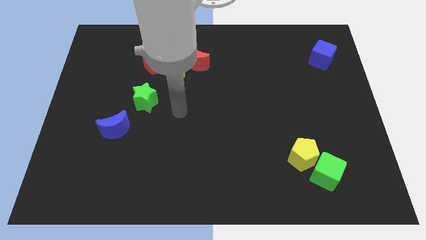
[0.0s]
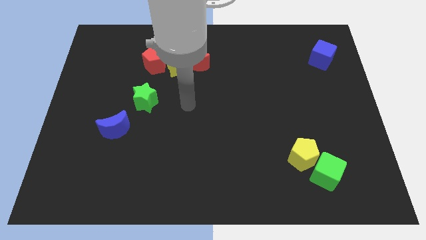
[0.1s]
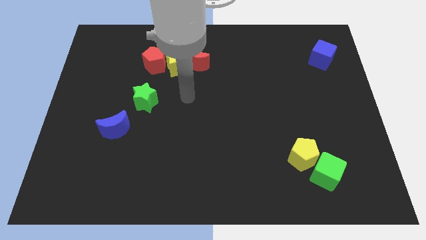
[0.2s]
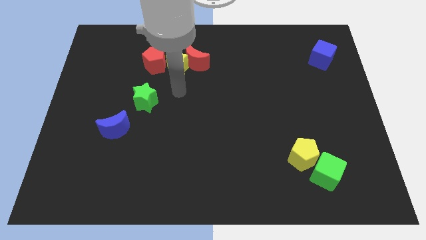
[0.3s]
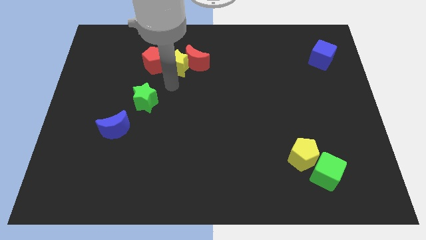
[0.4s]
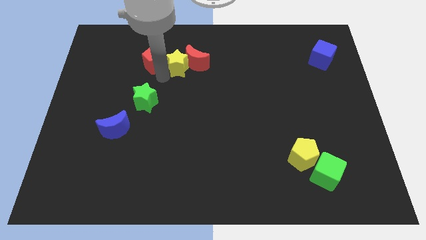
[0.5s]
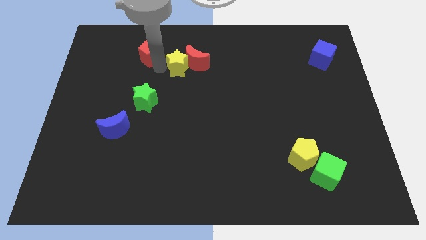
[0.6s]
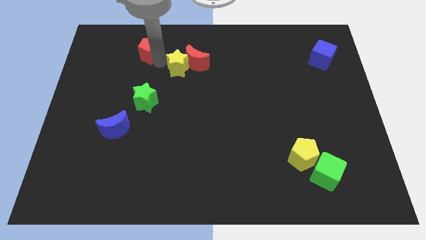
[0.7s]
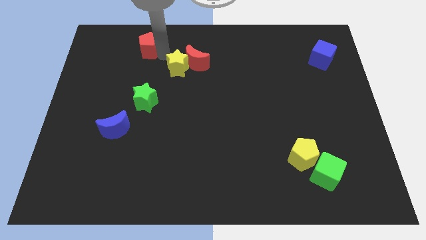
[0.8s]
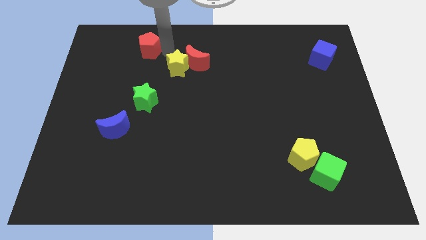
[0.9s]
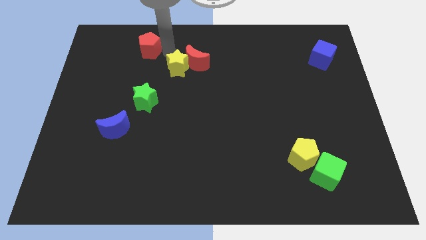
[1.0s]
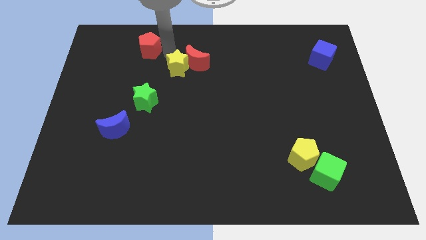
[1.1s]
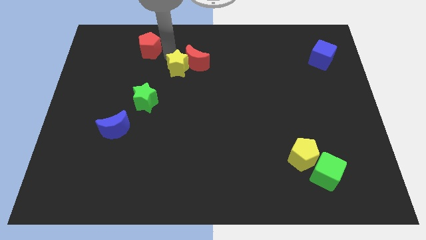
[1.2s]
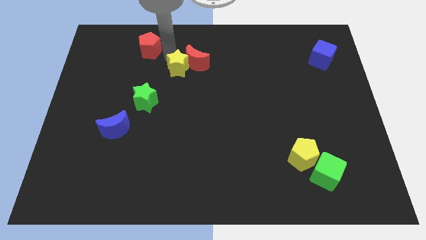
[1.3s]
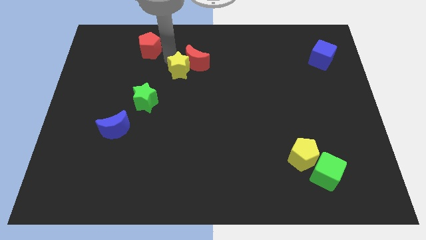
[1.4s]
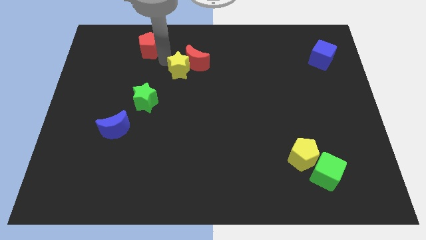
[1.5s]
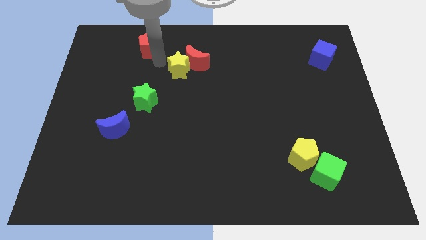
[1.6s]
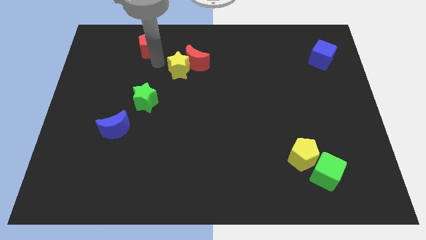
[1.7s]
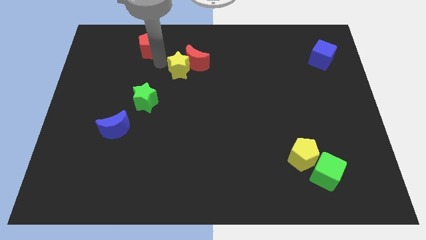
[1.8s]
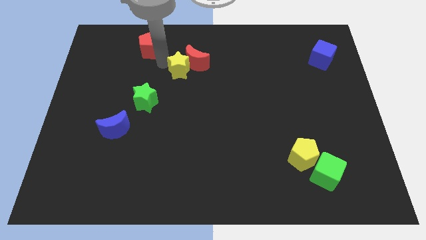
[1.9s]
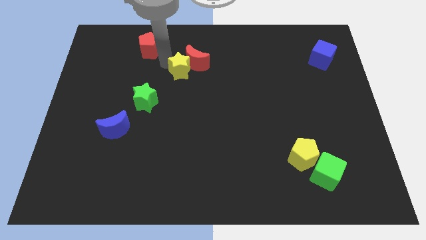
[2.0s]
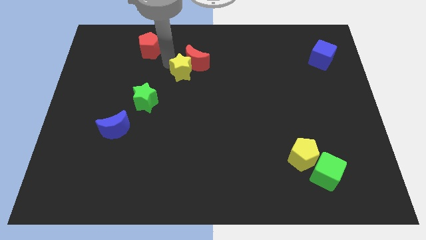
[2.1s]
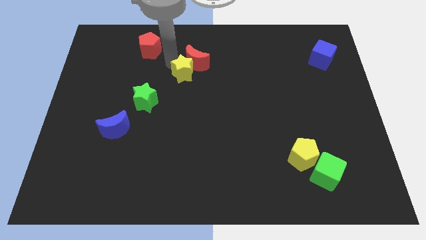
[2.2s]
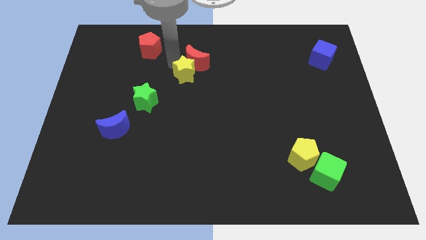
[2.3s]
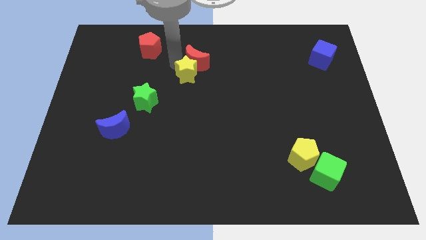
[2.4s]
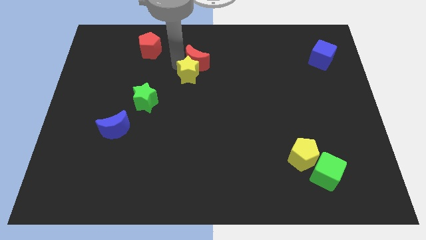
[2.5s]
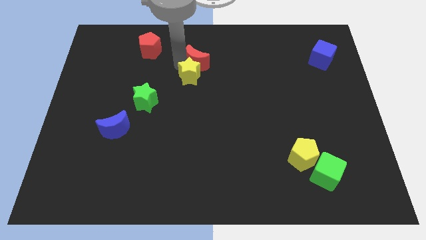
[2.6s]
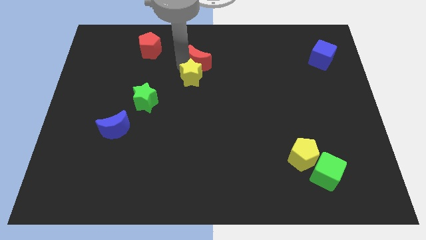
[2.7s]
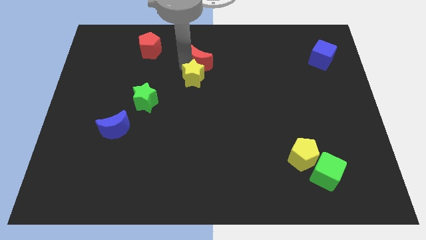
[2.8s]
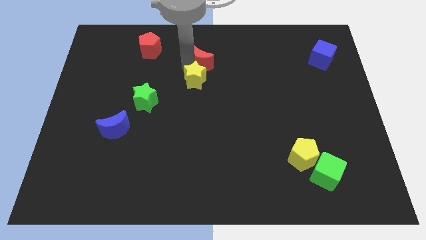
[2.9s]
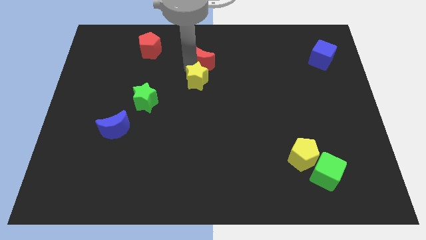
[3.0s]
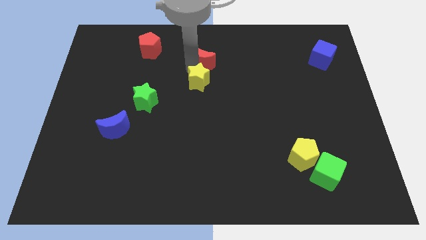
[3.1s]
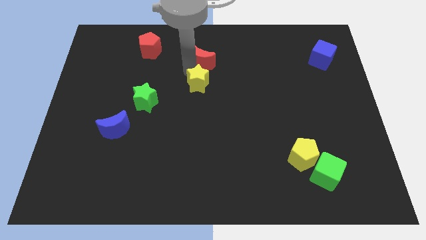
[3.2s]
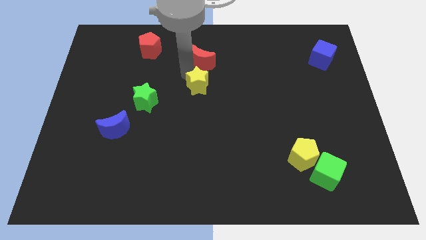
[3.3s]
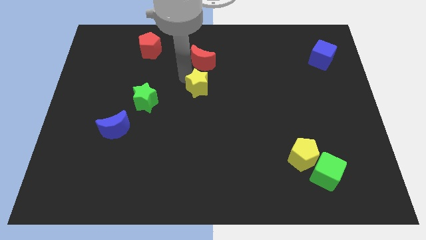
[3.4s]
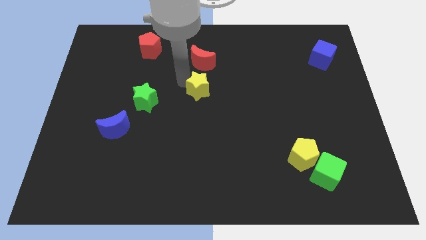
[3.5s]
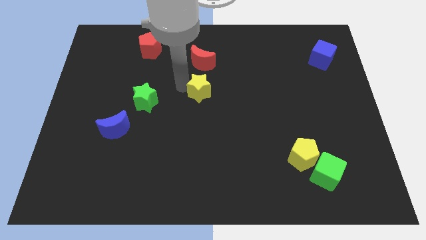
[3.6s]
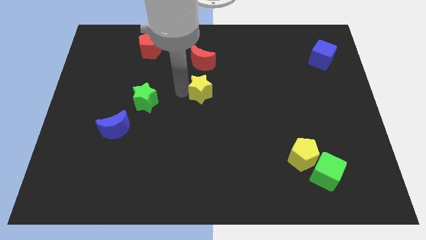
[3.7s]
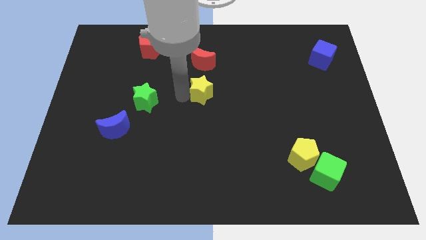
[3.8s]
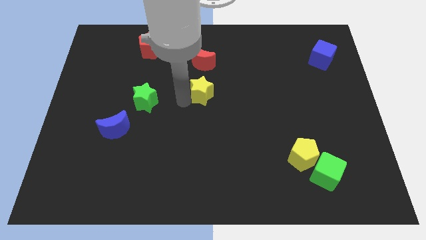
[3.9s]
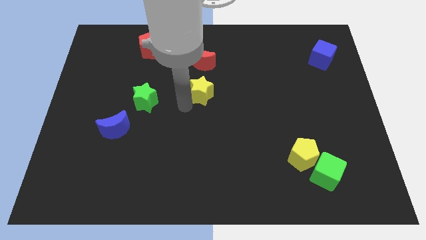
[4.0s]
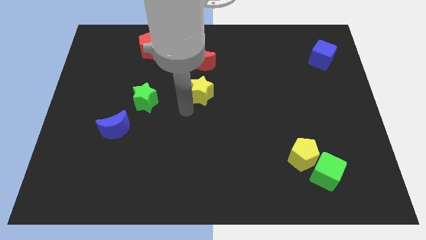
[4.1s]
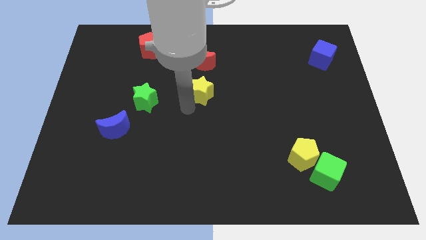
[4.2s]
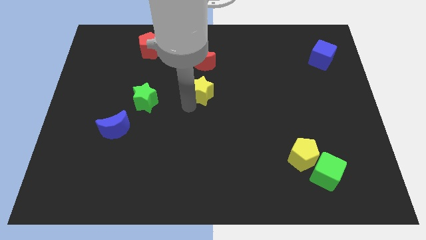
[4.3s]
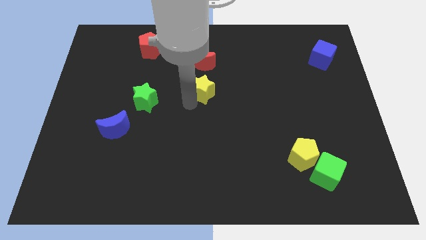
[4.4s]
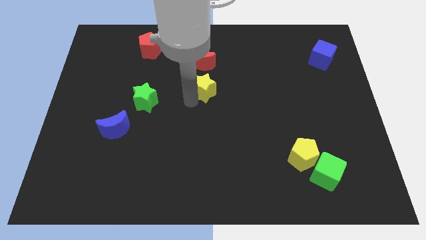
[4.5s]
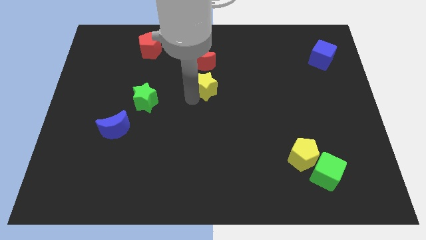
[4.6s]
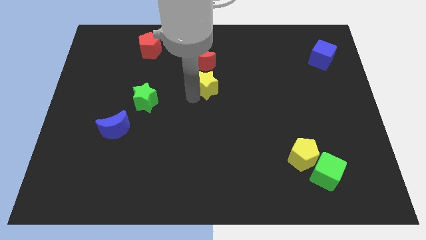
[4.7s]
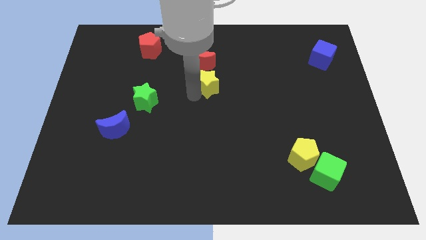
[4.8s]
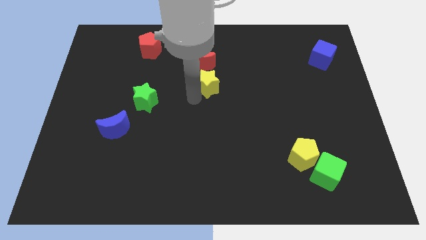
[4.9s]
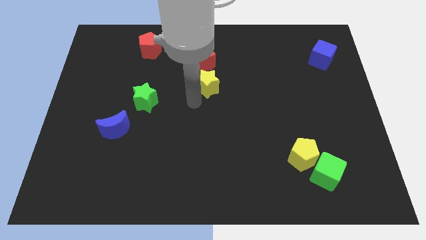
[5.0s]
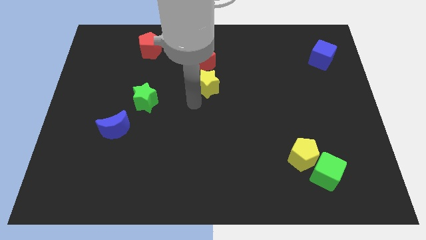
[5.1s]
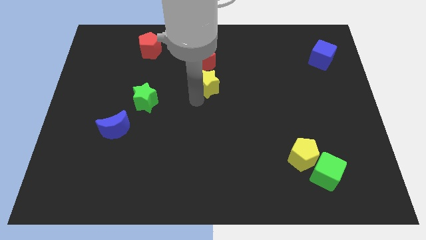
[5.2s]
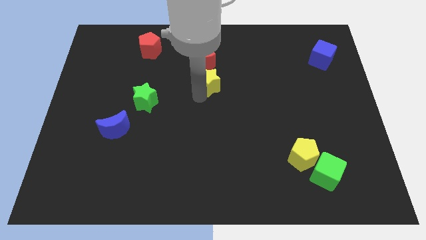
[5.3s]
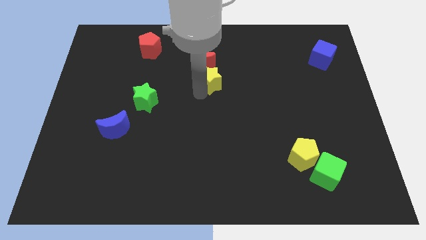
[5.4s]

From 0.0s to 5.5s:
push the yellow star right a little bit

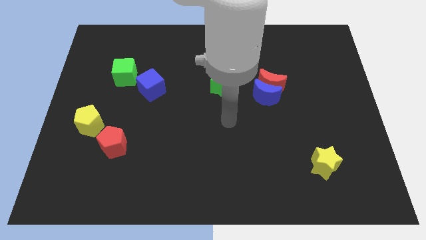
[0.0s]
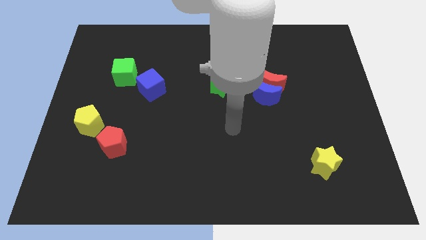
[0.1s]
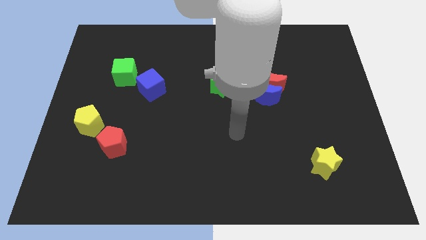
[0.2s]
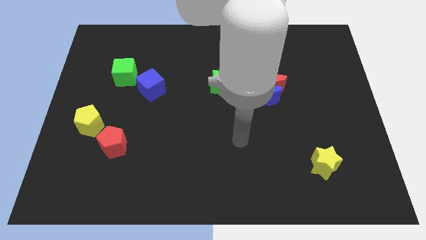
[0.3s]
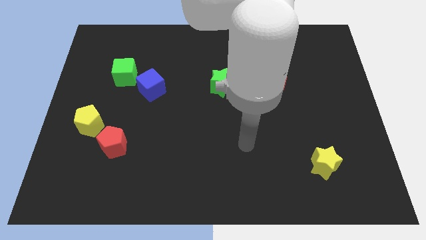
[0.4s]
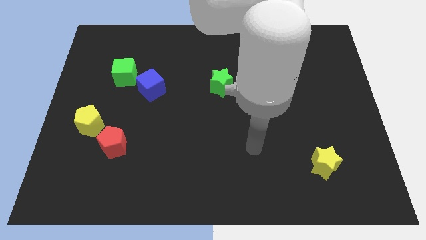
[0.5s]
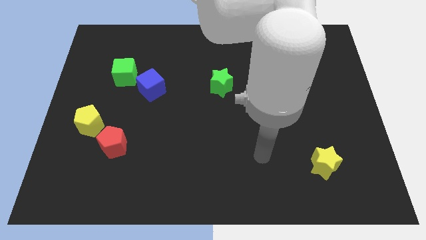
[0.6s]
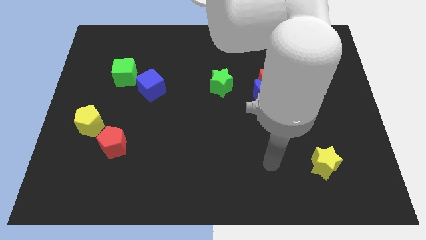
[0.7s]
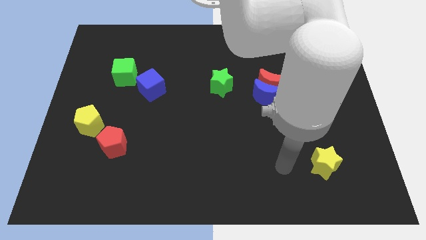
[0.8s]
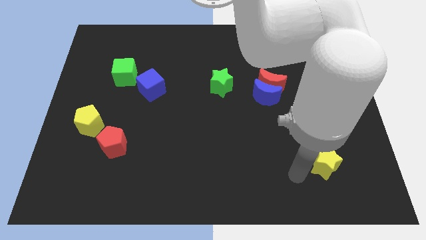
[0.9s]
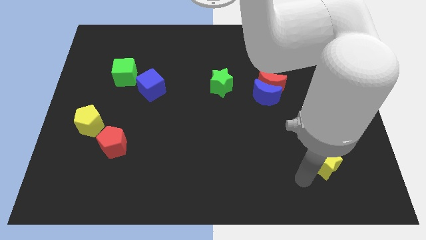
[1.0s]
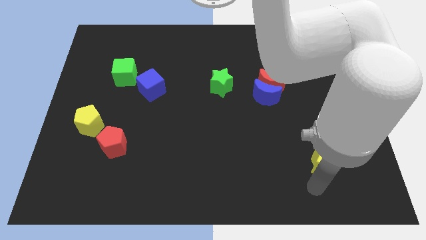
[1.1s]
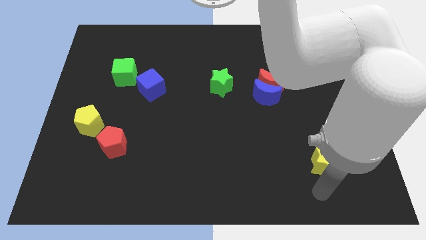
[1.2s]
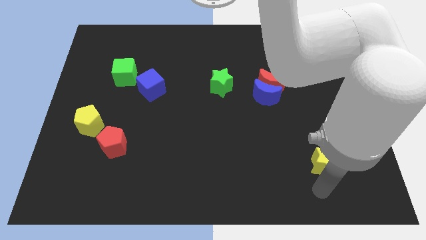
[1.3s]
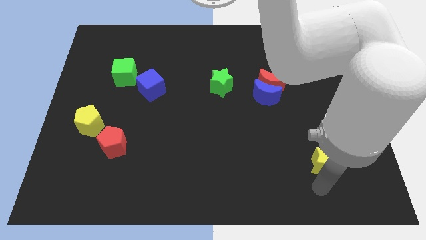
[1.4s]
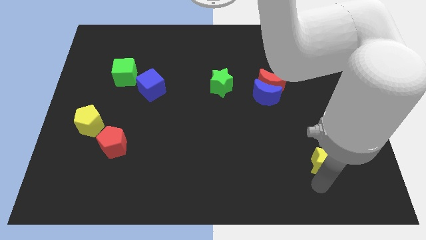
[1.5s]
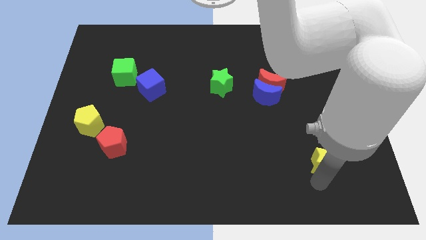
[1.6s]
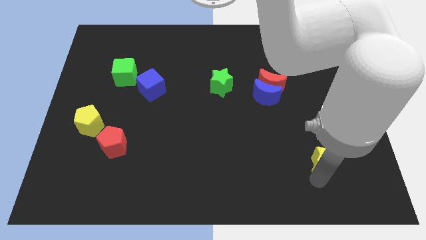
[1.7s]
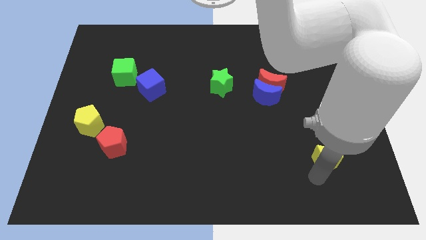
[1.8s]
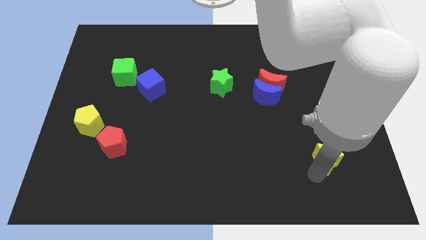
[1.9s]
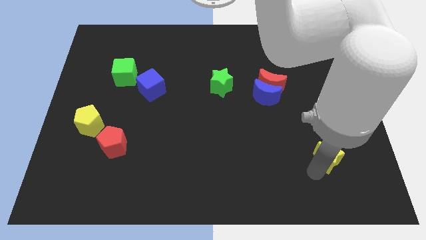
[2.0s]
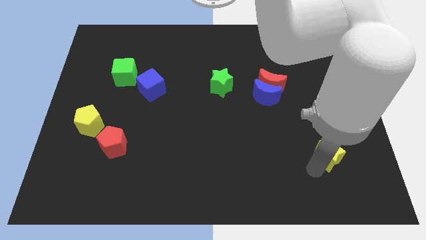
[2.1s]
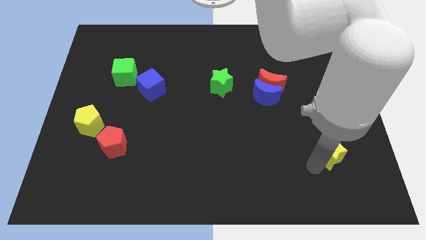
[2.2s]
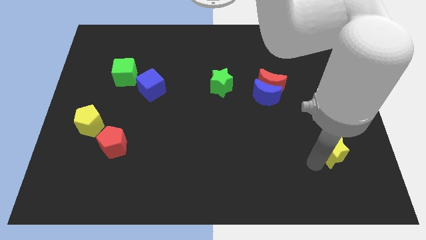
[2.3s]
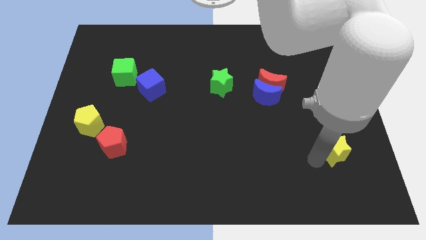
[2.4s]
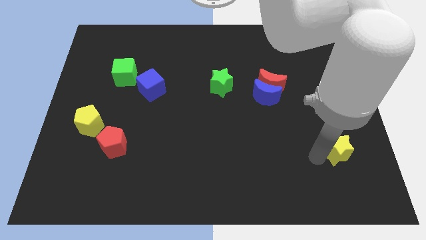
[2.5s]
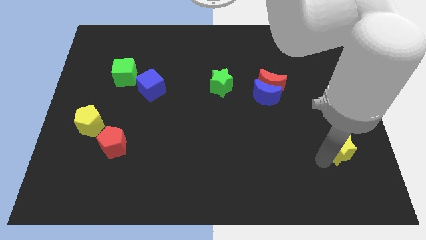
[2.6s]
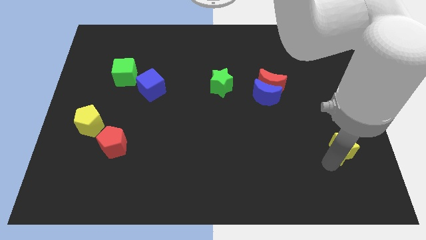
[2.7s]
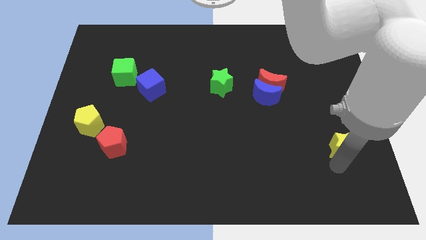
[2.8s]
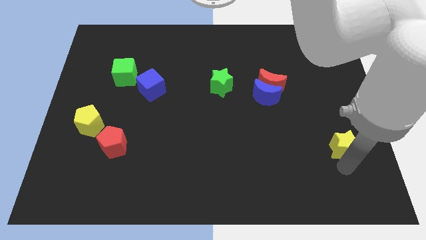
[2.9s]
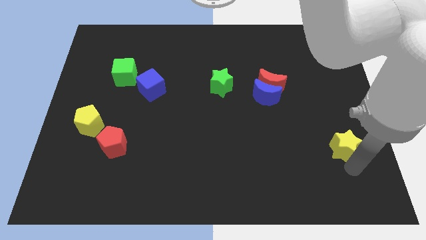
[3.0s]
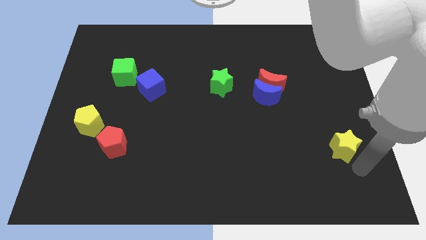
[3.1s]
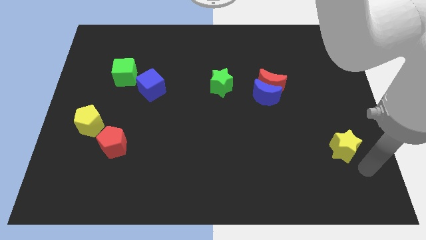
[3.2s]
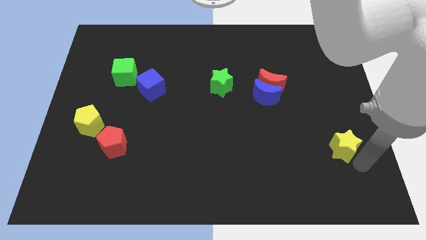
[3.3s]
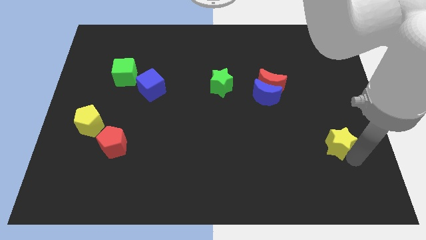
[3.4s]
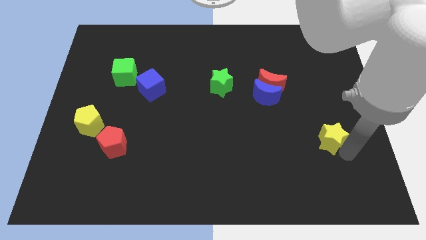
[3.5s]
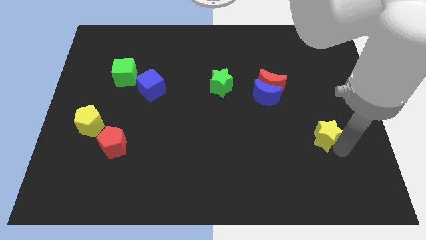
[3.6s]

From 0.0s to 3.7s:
push the yellow star a little up
